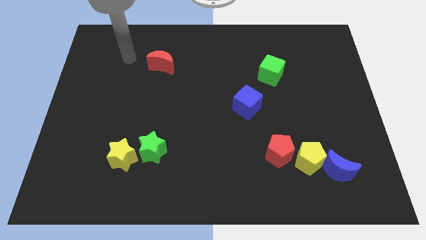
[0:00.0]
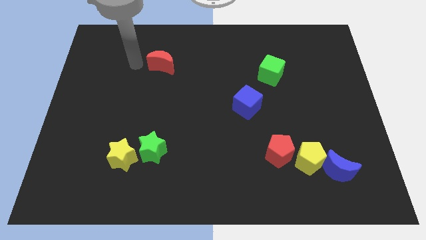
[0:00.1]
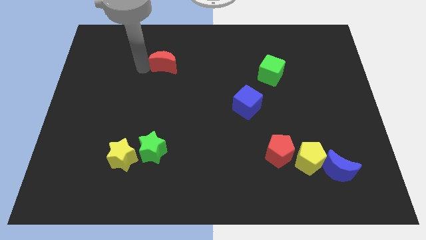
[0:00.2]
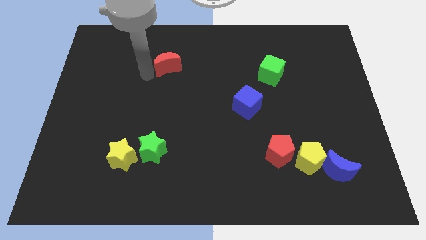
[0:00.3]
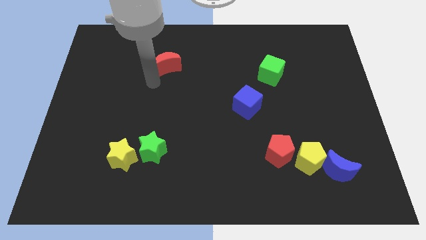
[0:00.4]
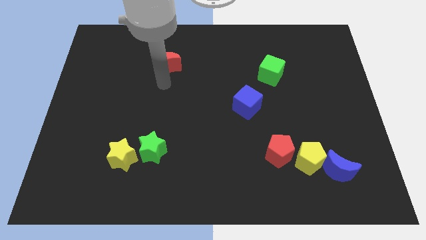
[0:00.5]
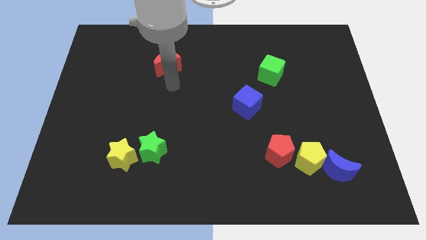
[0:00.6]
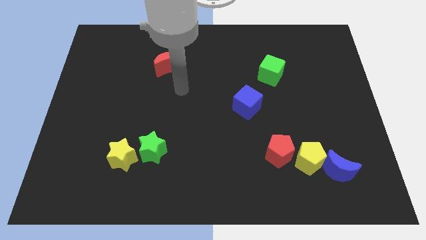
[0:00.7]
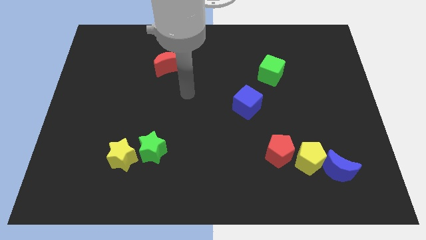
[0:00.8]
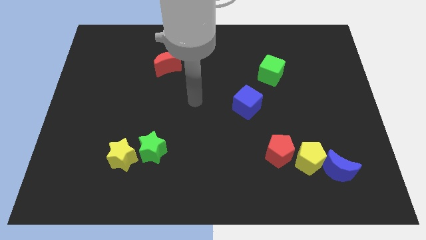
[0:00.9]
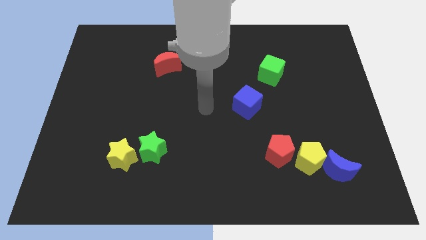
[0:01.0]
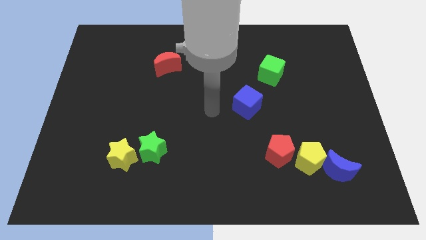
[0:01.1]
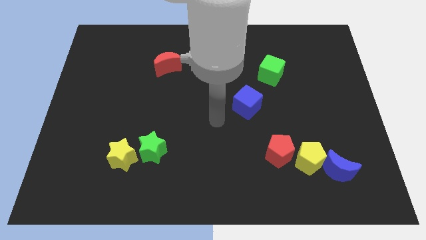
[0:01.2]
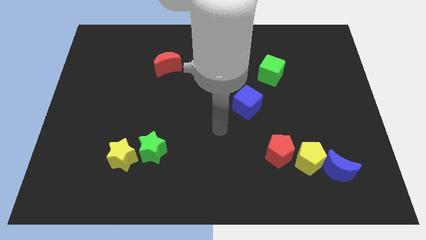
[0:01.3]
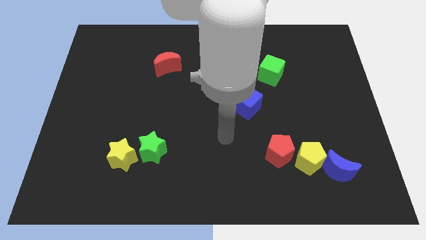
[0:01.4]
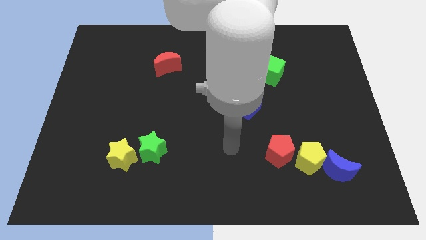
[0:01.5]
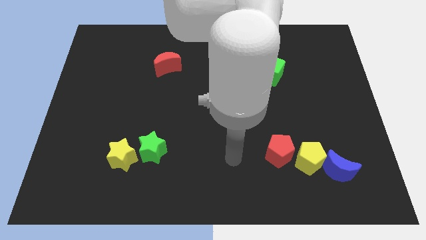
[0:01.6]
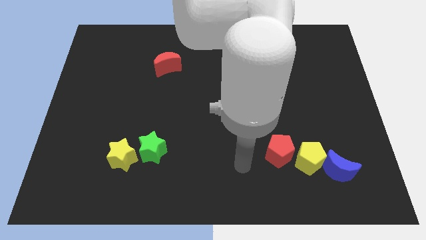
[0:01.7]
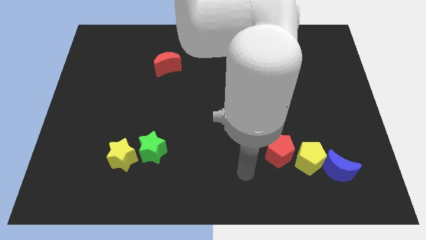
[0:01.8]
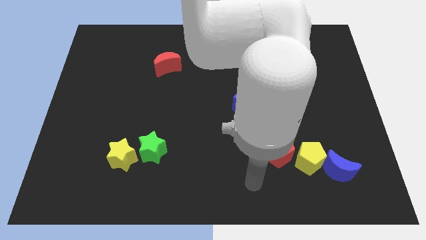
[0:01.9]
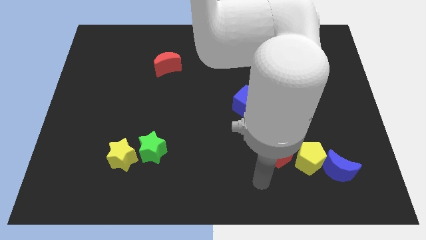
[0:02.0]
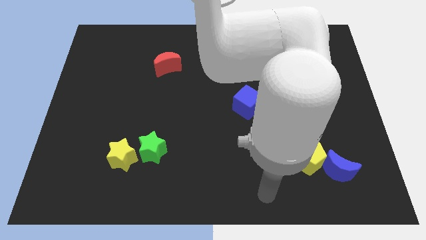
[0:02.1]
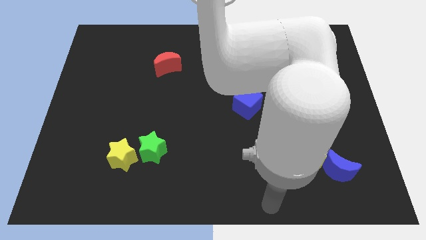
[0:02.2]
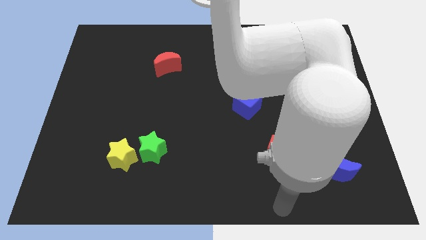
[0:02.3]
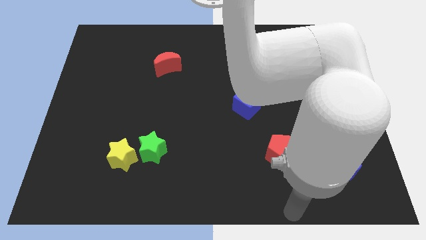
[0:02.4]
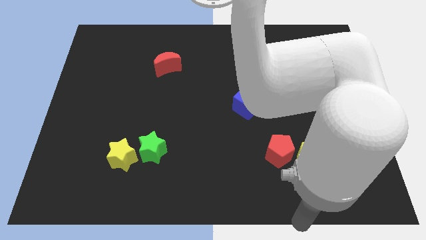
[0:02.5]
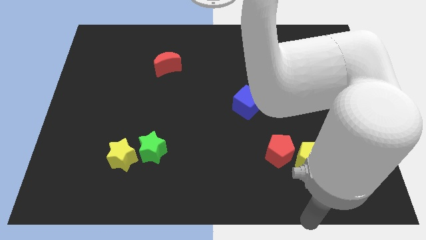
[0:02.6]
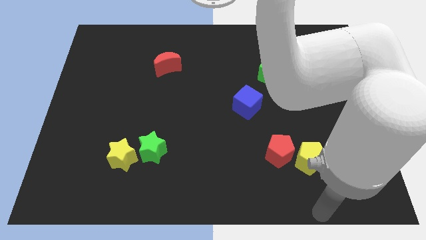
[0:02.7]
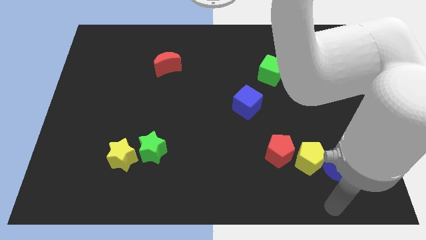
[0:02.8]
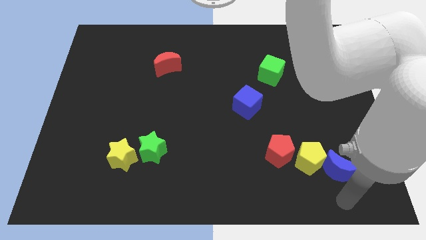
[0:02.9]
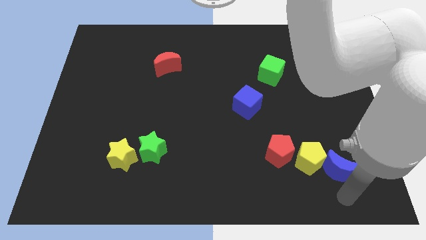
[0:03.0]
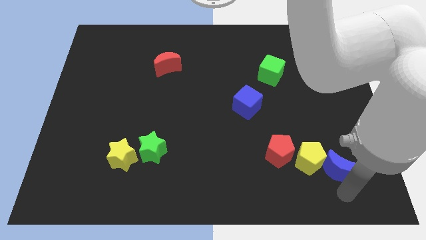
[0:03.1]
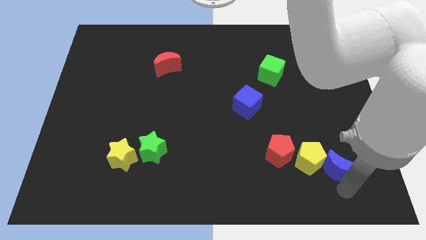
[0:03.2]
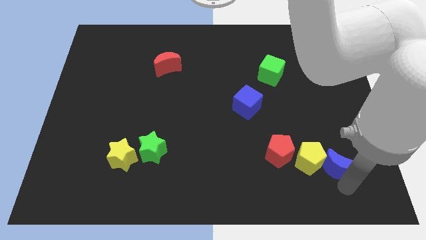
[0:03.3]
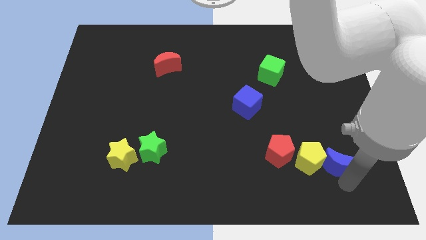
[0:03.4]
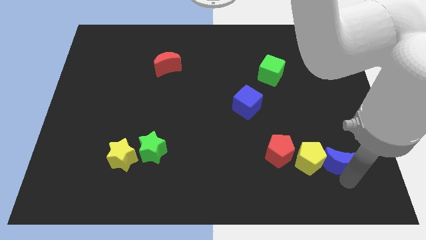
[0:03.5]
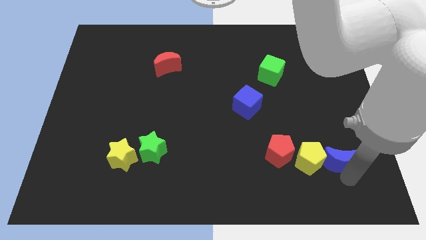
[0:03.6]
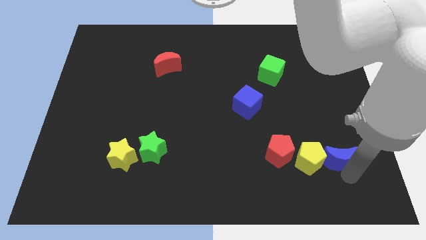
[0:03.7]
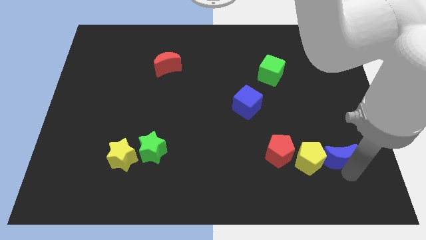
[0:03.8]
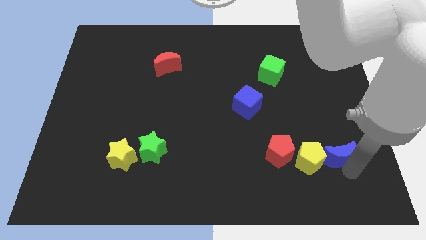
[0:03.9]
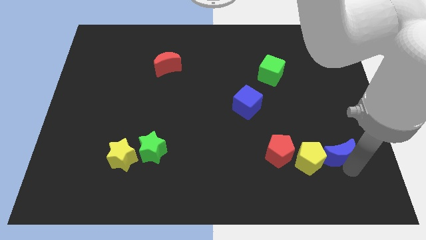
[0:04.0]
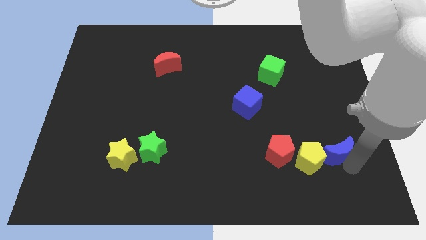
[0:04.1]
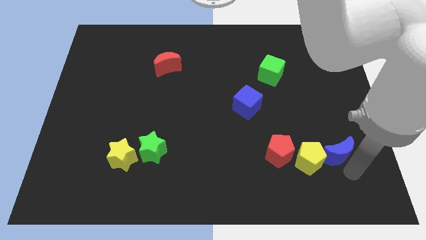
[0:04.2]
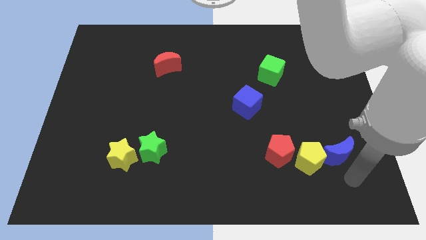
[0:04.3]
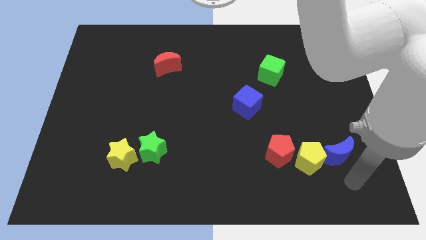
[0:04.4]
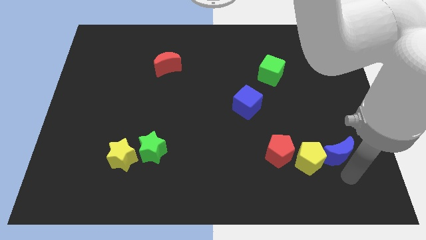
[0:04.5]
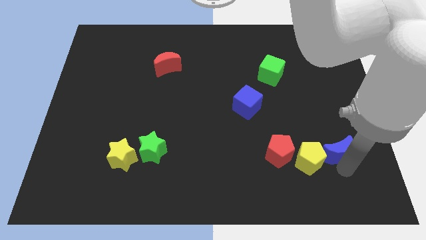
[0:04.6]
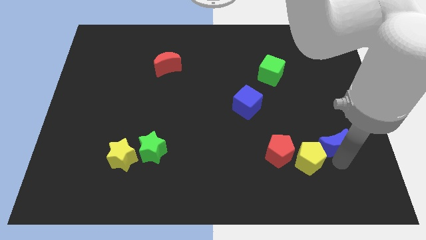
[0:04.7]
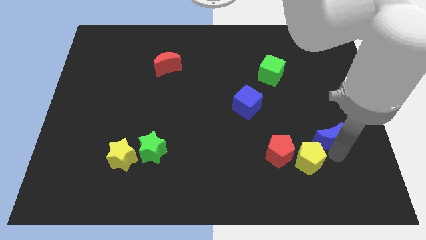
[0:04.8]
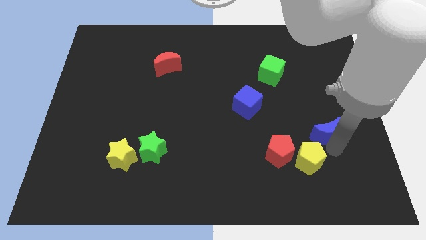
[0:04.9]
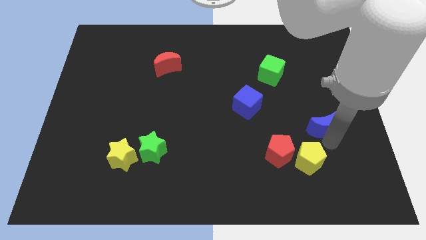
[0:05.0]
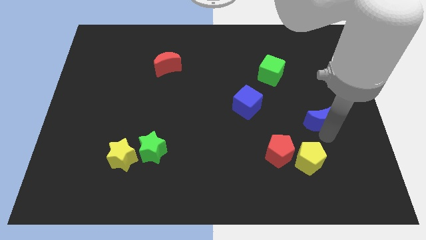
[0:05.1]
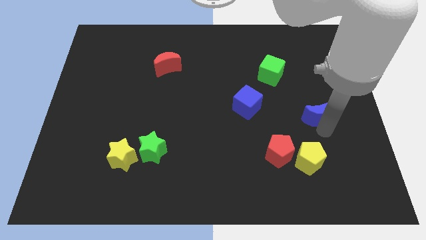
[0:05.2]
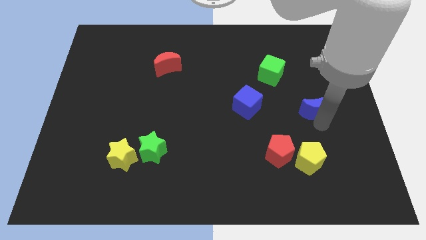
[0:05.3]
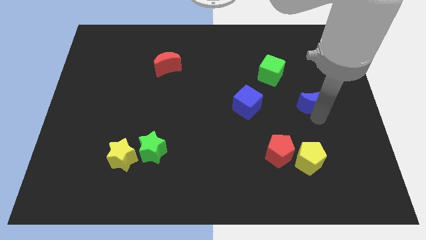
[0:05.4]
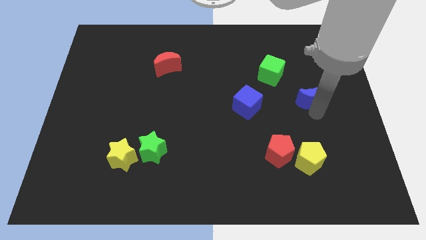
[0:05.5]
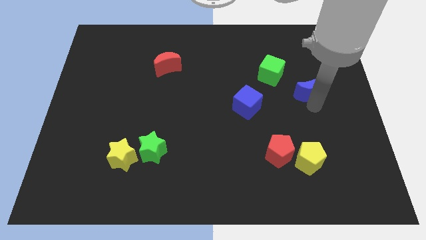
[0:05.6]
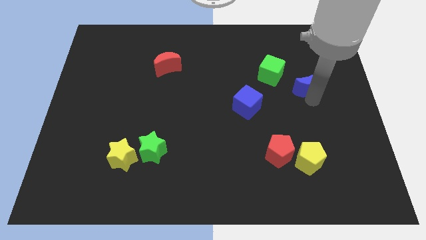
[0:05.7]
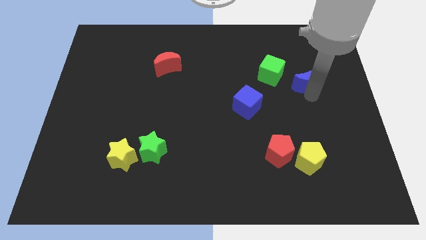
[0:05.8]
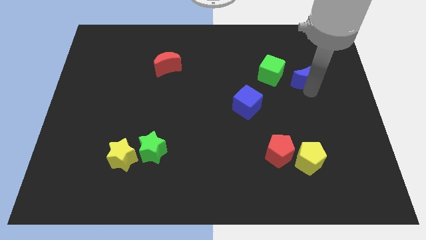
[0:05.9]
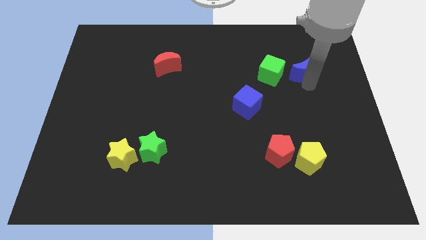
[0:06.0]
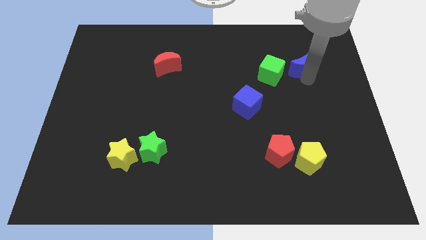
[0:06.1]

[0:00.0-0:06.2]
slide the blue moon to the top right of the green cube

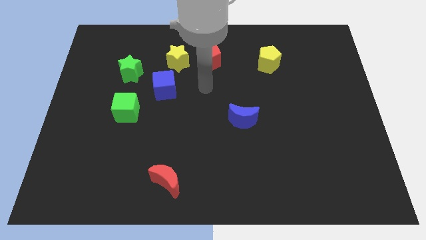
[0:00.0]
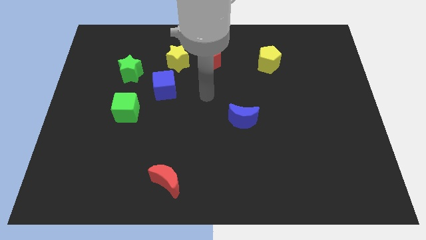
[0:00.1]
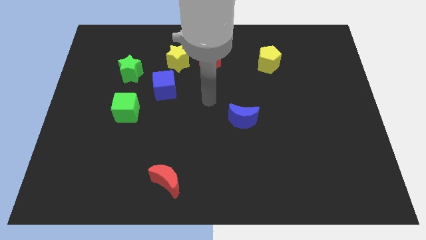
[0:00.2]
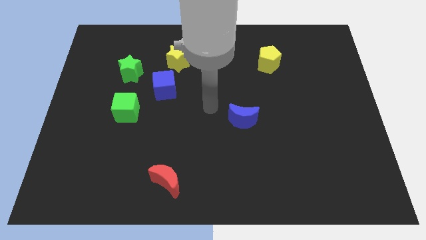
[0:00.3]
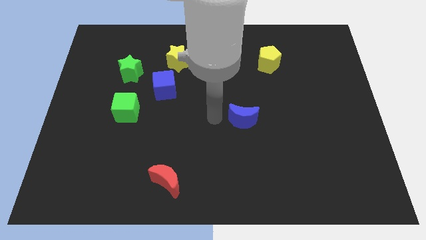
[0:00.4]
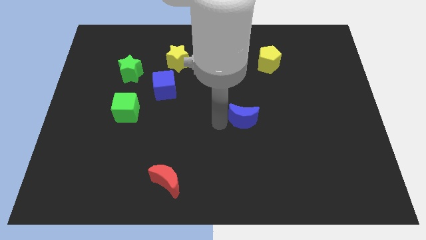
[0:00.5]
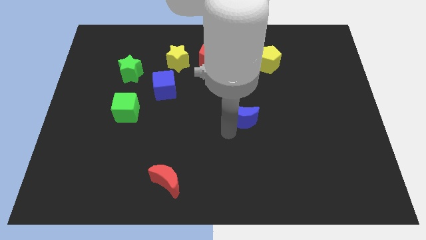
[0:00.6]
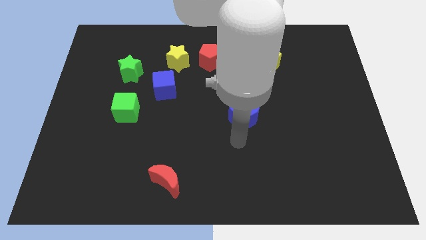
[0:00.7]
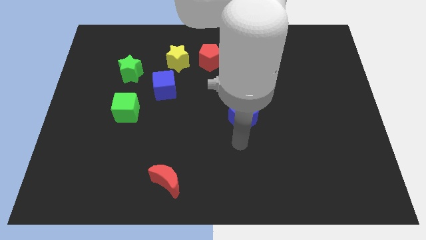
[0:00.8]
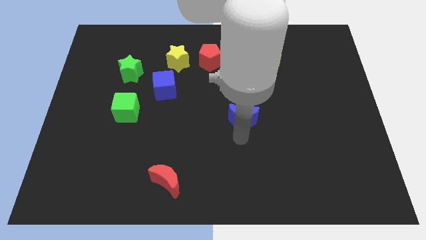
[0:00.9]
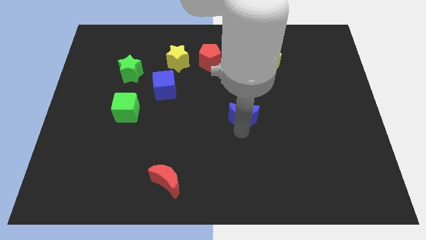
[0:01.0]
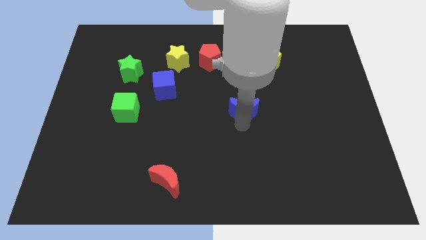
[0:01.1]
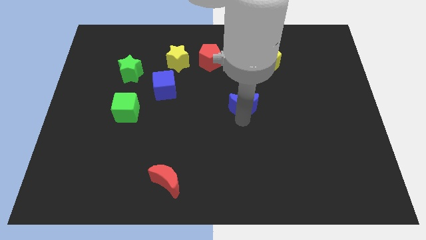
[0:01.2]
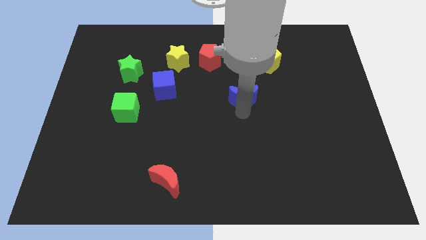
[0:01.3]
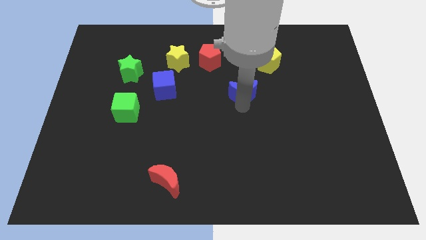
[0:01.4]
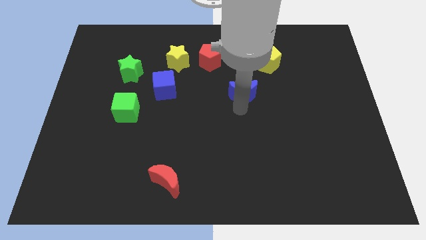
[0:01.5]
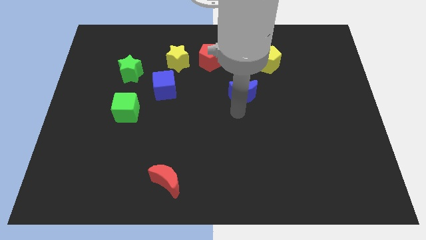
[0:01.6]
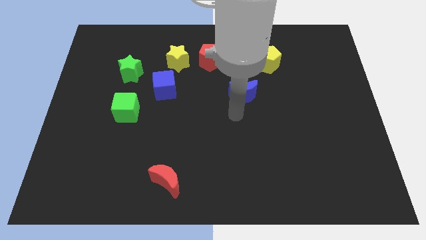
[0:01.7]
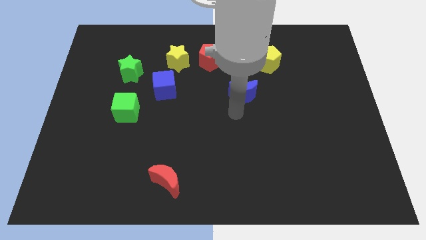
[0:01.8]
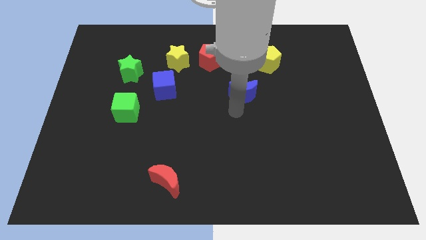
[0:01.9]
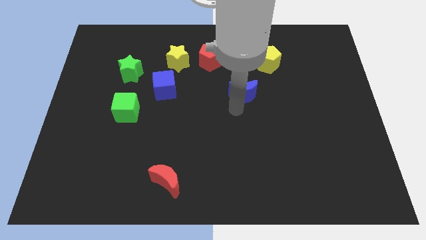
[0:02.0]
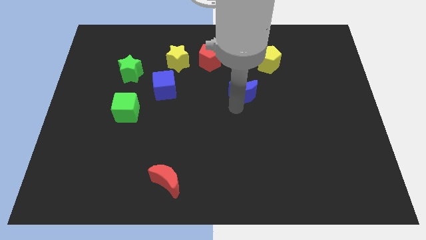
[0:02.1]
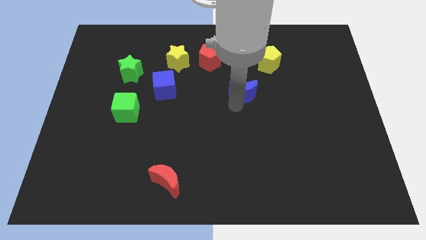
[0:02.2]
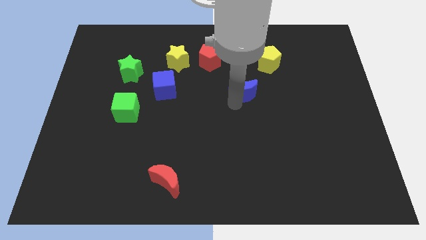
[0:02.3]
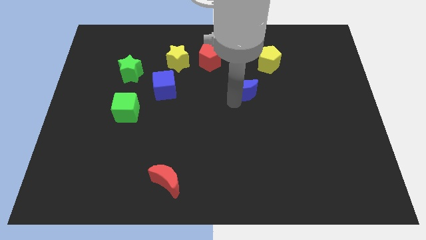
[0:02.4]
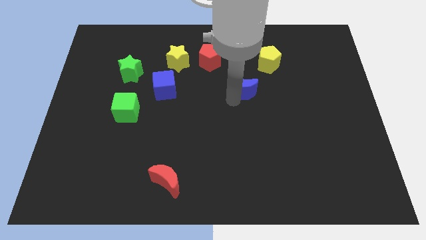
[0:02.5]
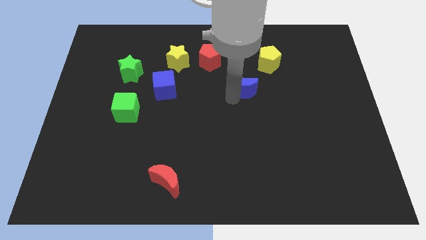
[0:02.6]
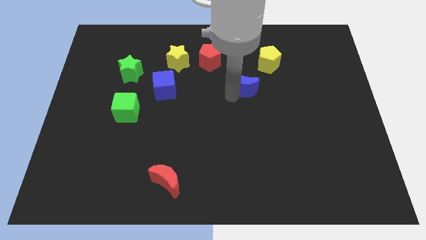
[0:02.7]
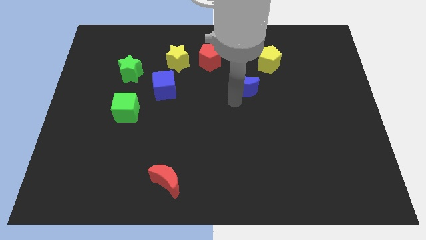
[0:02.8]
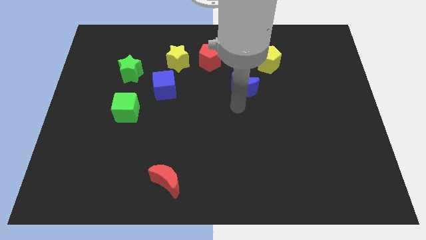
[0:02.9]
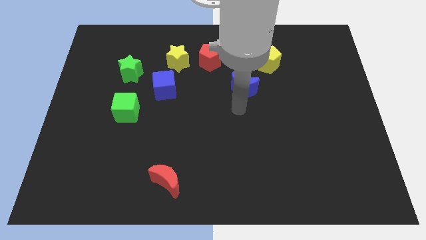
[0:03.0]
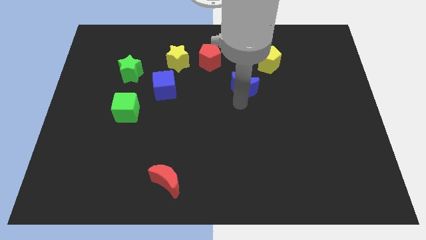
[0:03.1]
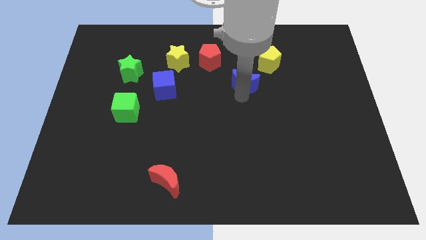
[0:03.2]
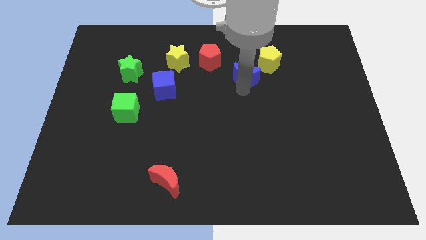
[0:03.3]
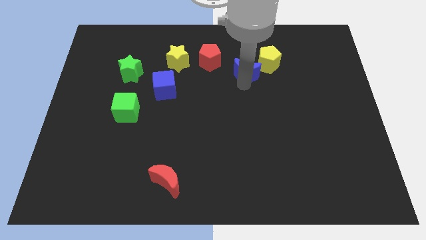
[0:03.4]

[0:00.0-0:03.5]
move the blue moon right of the red pentagon
